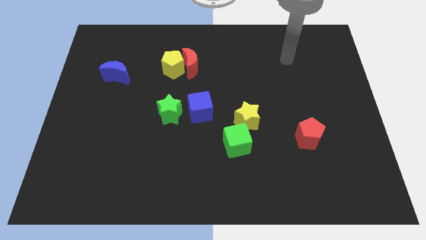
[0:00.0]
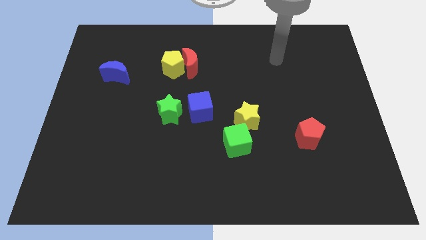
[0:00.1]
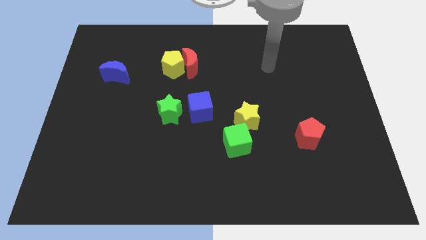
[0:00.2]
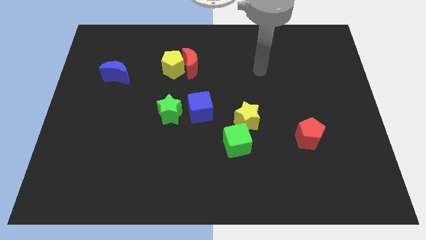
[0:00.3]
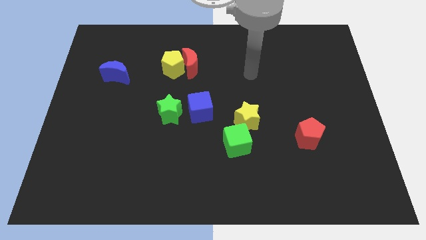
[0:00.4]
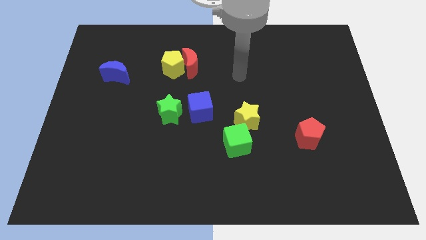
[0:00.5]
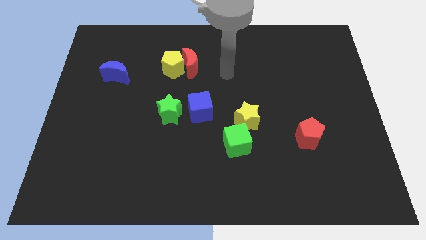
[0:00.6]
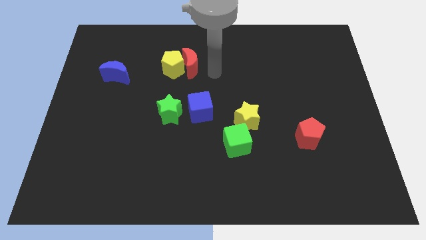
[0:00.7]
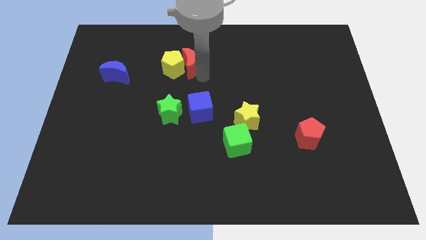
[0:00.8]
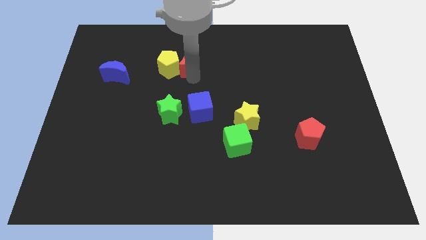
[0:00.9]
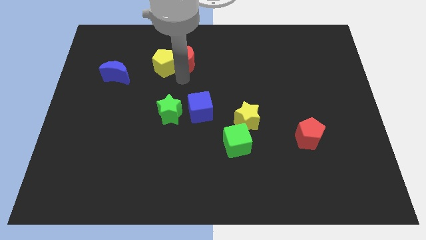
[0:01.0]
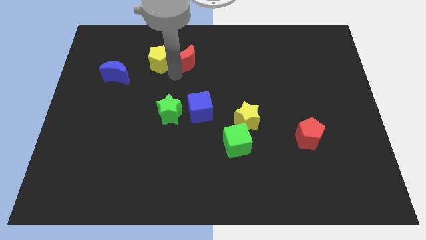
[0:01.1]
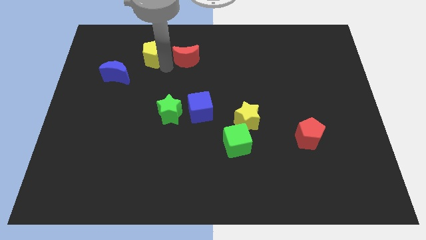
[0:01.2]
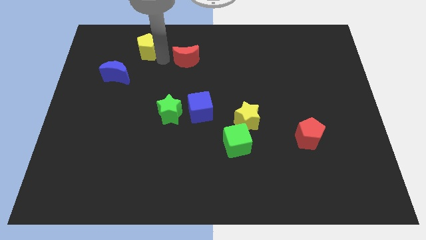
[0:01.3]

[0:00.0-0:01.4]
move the red moon away from the yellow pentagon

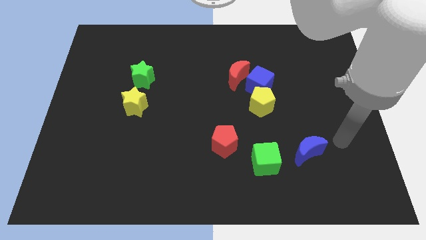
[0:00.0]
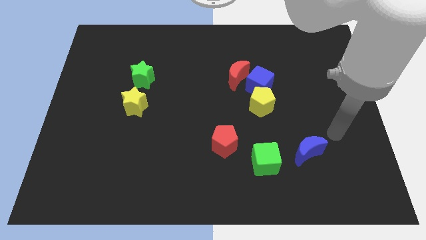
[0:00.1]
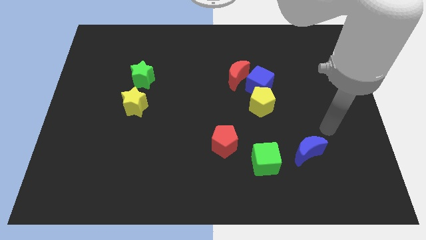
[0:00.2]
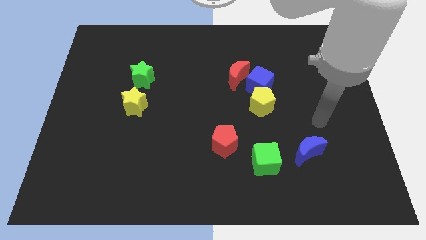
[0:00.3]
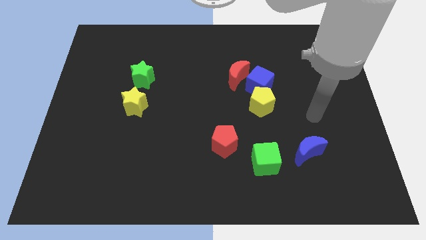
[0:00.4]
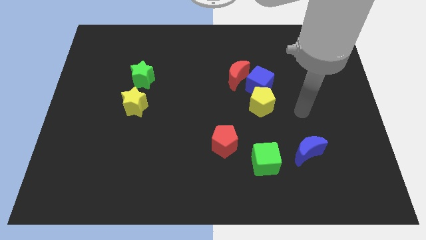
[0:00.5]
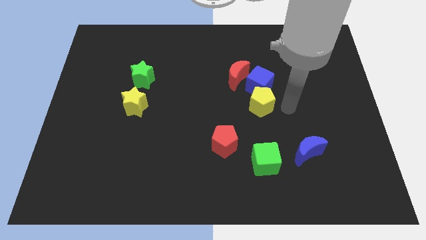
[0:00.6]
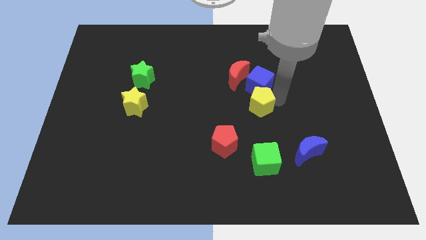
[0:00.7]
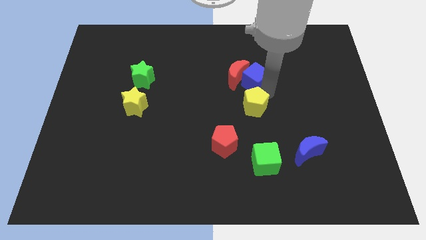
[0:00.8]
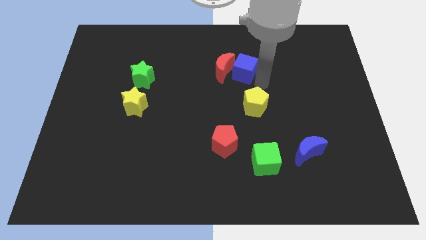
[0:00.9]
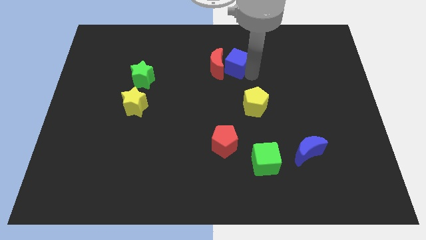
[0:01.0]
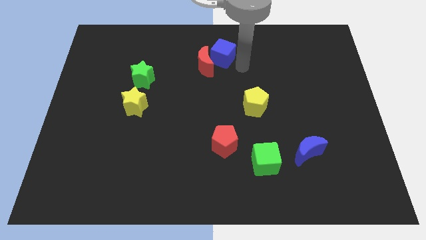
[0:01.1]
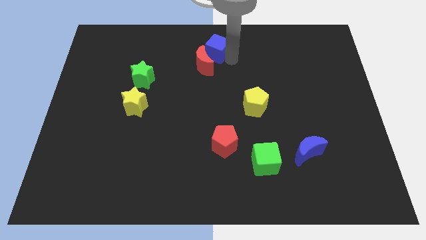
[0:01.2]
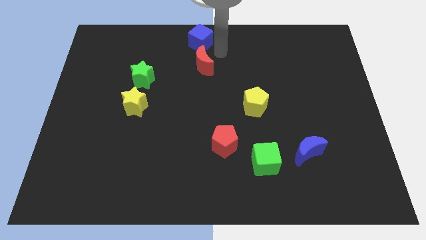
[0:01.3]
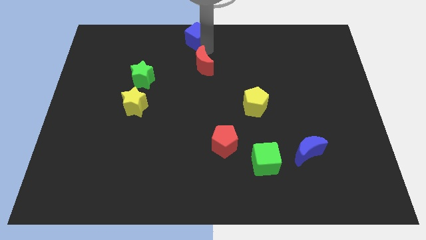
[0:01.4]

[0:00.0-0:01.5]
separate the red moon from the blue cube

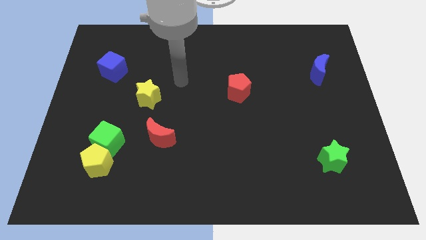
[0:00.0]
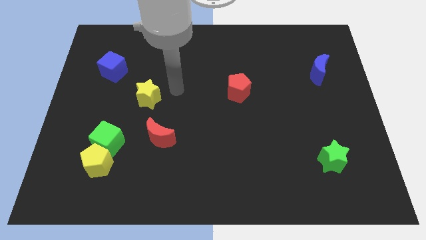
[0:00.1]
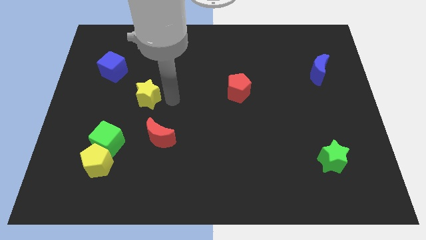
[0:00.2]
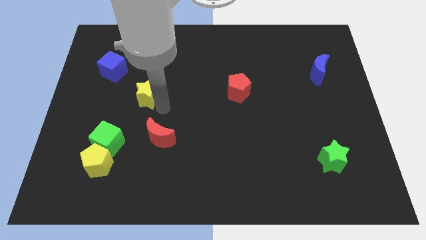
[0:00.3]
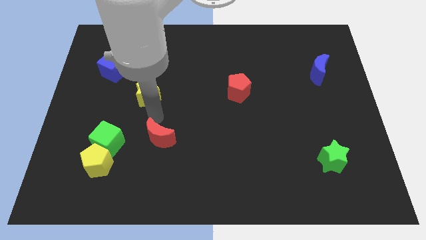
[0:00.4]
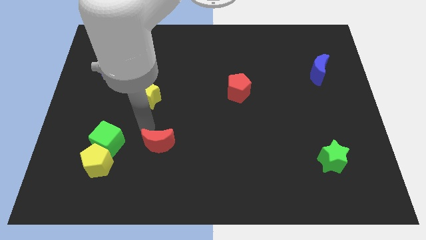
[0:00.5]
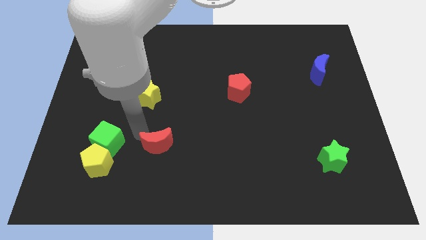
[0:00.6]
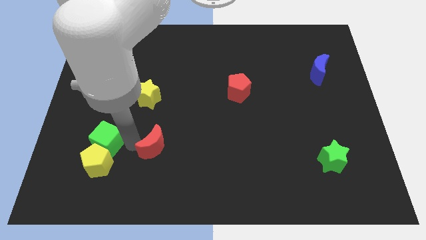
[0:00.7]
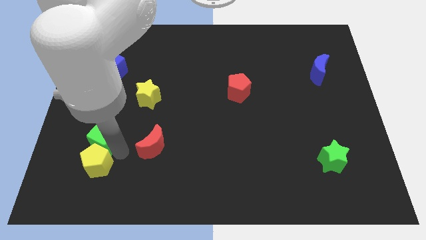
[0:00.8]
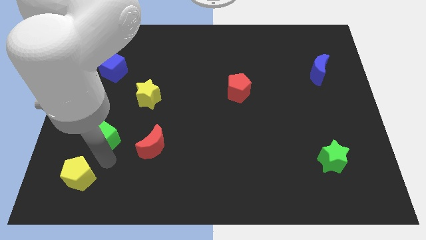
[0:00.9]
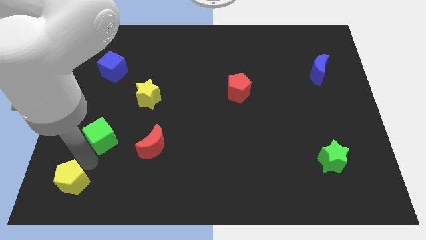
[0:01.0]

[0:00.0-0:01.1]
separate the green cube from the yellow pentagon

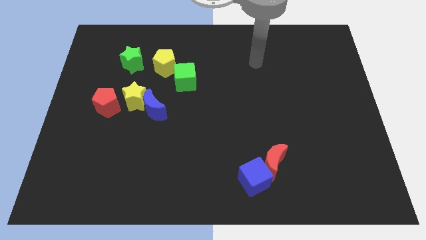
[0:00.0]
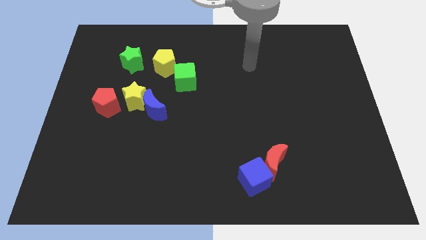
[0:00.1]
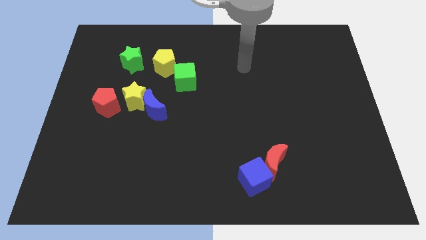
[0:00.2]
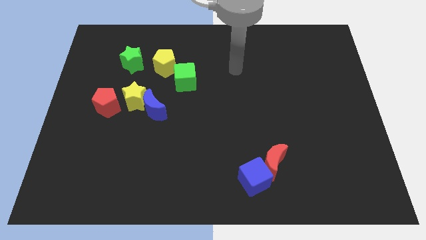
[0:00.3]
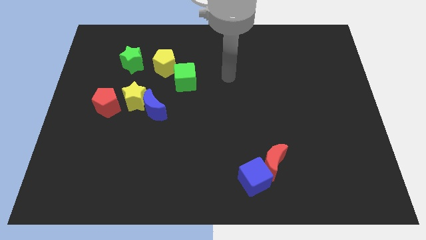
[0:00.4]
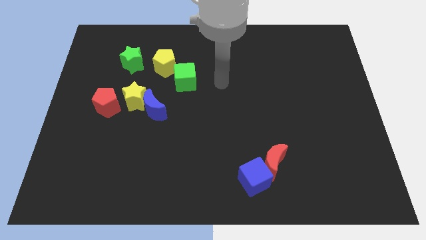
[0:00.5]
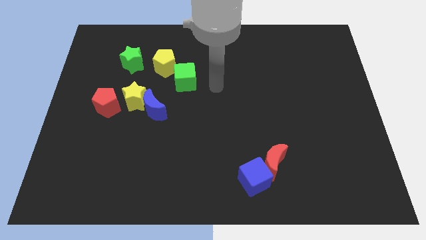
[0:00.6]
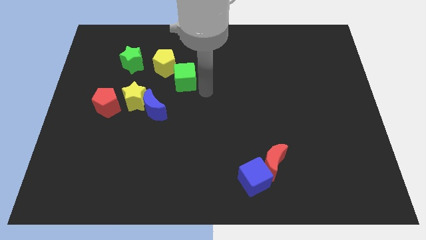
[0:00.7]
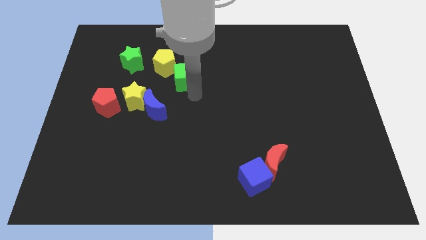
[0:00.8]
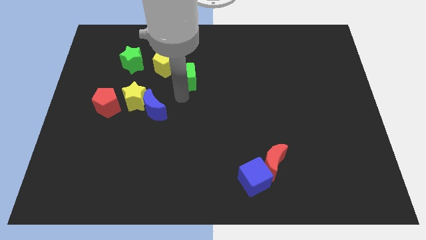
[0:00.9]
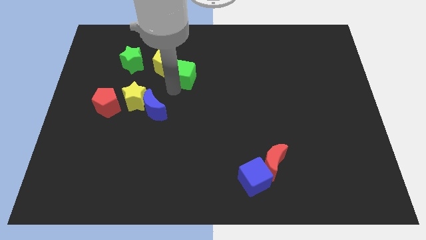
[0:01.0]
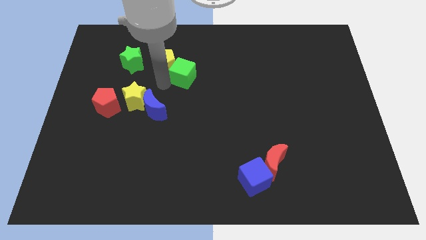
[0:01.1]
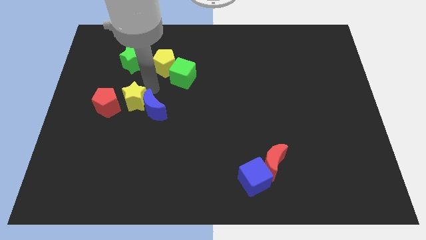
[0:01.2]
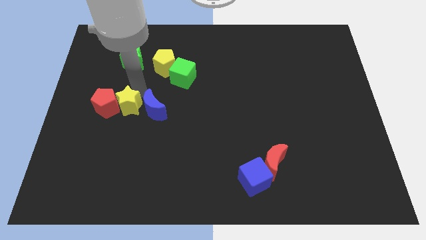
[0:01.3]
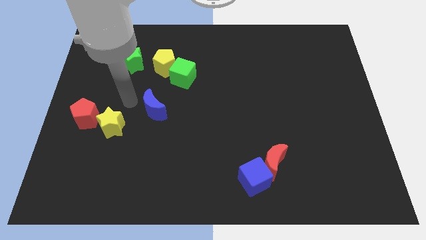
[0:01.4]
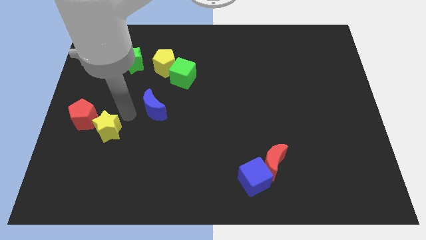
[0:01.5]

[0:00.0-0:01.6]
pull the blue moon apart from the yellow star

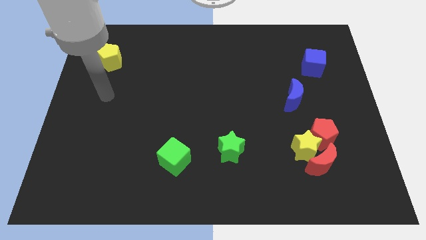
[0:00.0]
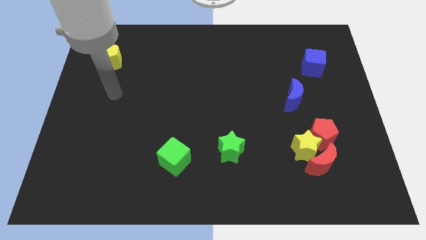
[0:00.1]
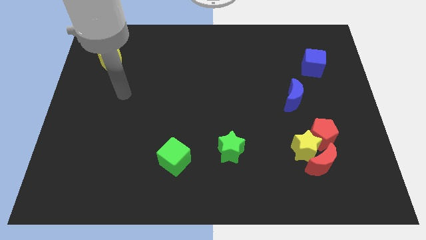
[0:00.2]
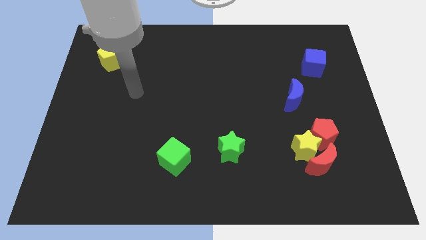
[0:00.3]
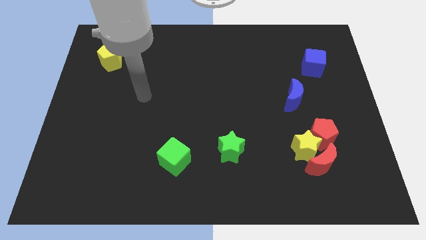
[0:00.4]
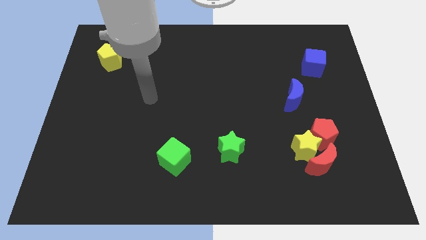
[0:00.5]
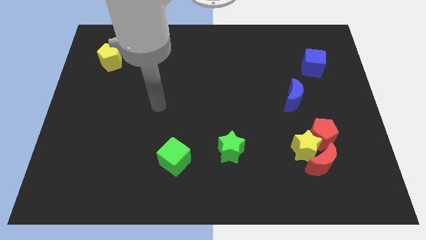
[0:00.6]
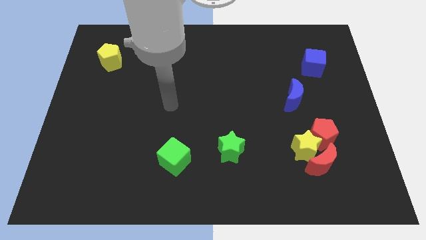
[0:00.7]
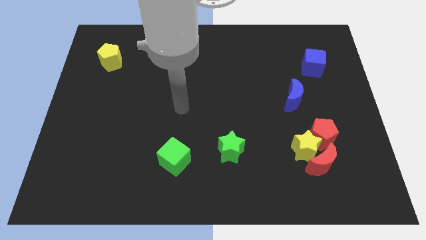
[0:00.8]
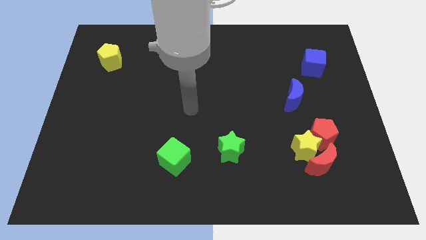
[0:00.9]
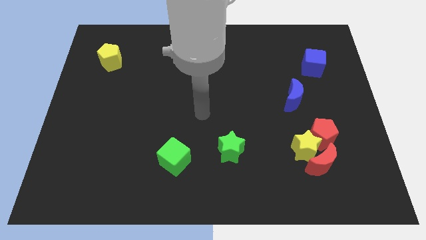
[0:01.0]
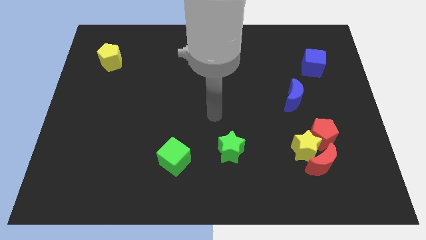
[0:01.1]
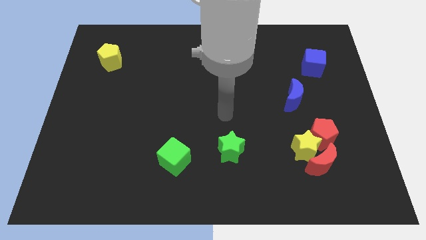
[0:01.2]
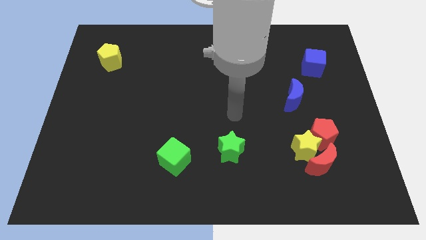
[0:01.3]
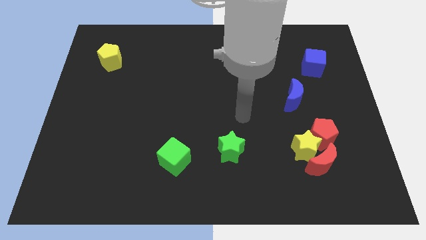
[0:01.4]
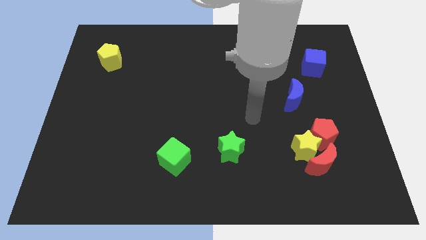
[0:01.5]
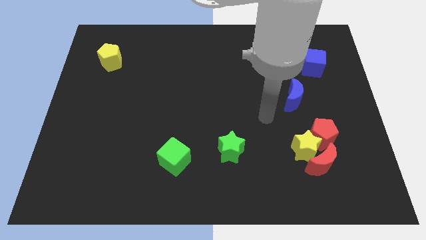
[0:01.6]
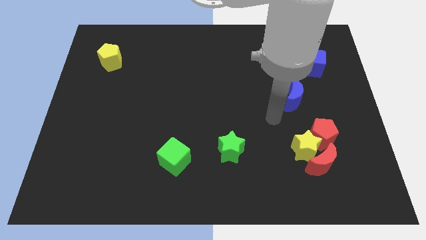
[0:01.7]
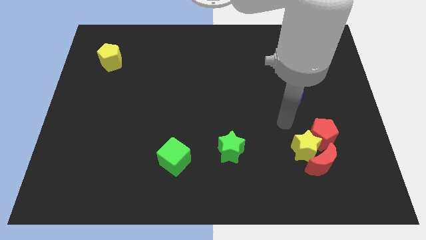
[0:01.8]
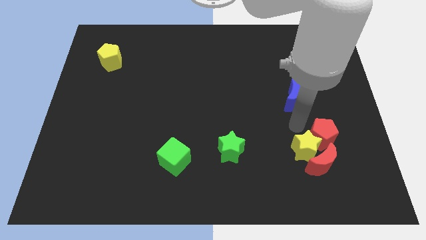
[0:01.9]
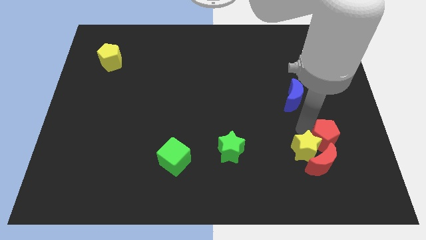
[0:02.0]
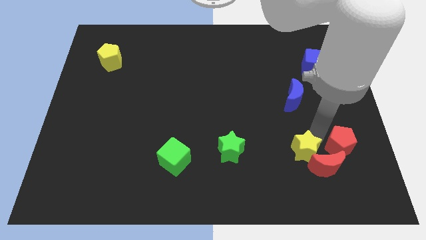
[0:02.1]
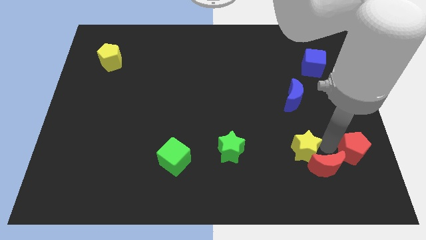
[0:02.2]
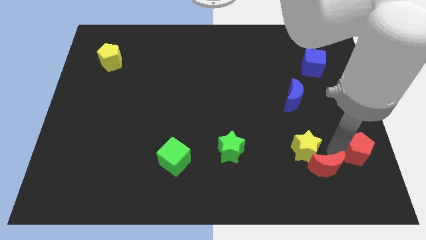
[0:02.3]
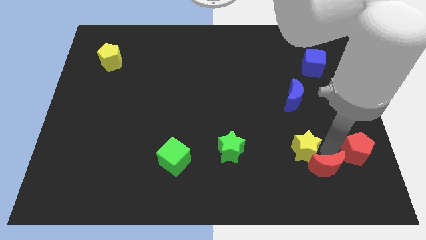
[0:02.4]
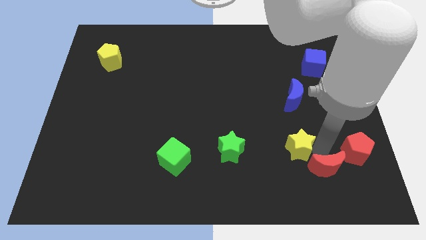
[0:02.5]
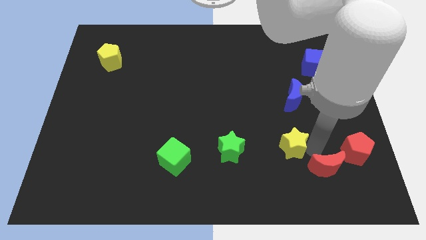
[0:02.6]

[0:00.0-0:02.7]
pull the yellow star apart from the red moon and red pentagon

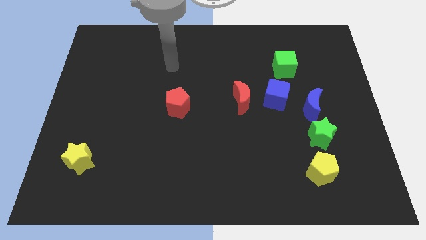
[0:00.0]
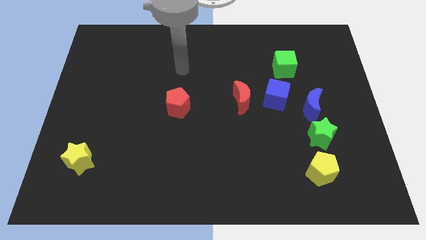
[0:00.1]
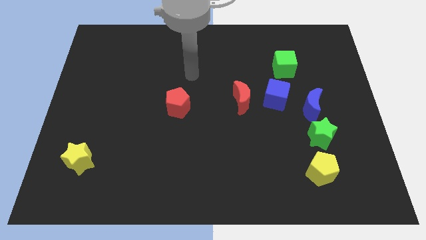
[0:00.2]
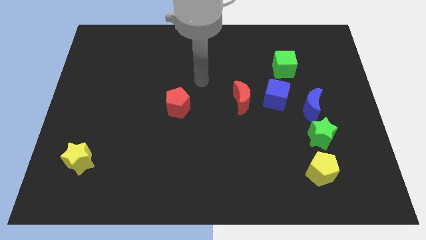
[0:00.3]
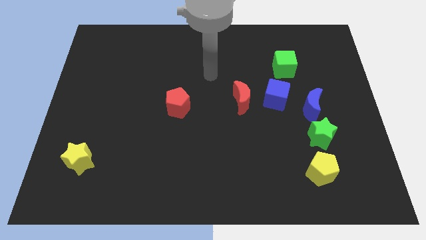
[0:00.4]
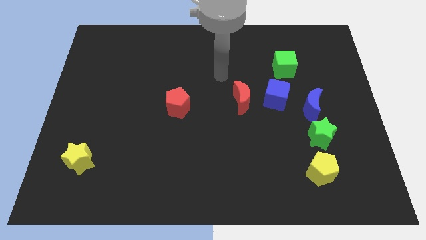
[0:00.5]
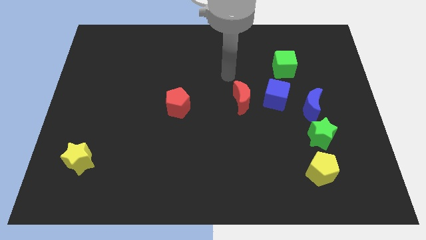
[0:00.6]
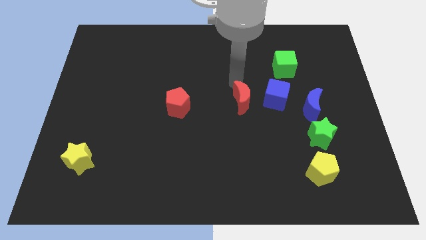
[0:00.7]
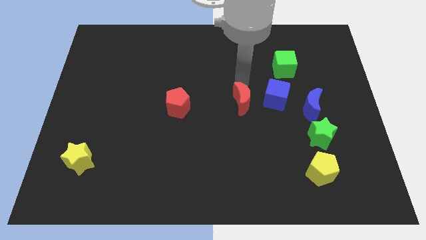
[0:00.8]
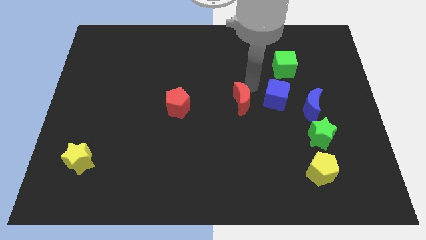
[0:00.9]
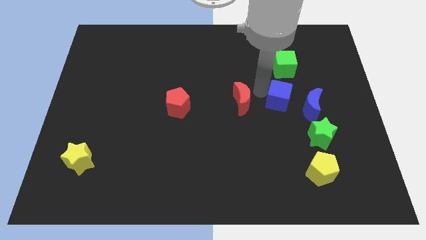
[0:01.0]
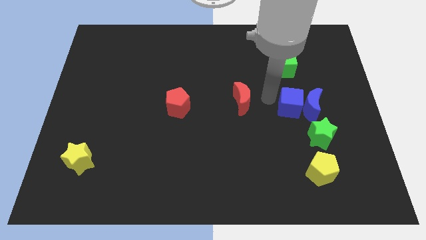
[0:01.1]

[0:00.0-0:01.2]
move the red moon away from the blue cube
